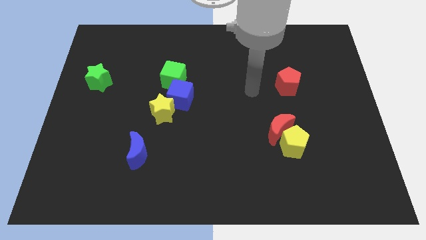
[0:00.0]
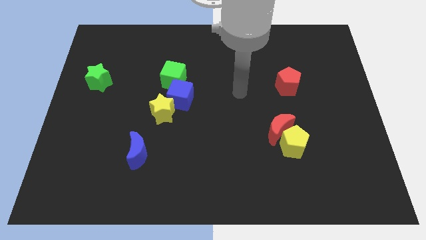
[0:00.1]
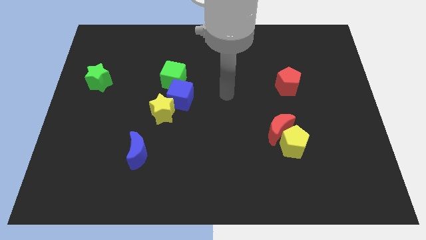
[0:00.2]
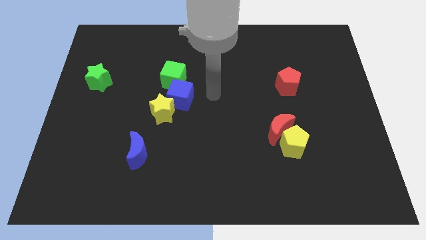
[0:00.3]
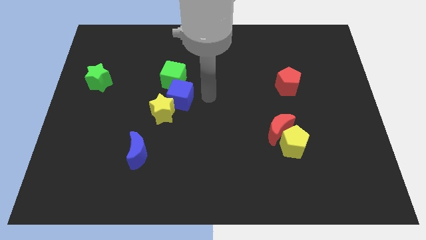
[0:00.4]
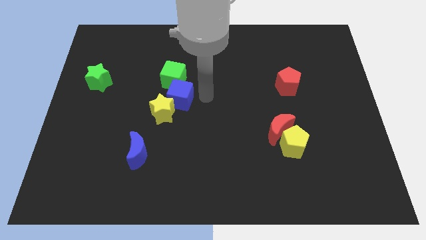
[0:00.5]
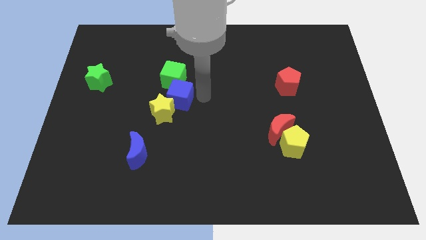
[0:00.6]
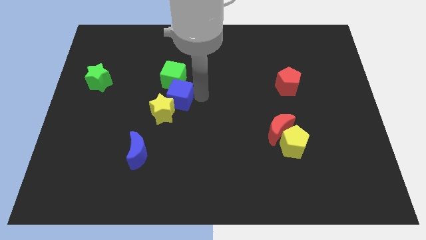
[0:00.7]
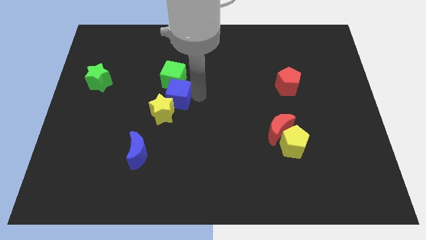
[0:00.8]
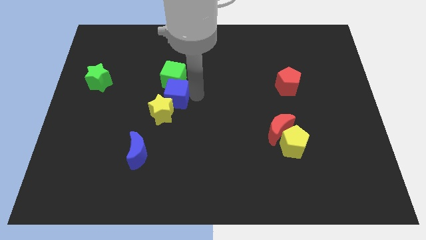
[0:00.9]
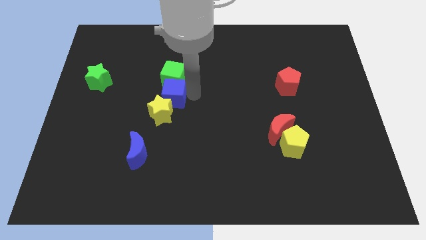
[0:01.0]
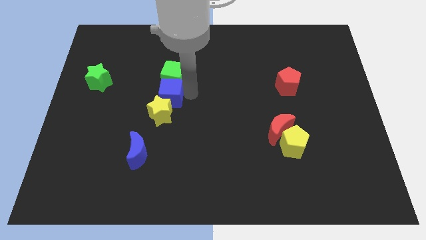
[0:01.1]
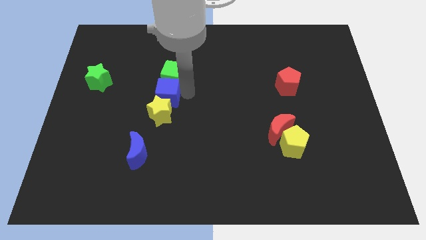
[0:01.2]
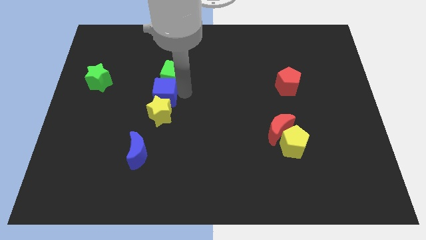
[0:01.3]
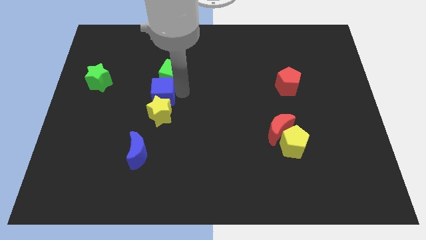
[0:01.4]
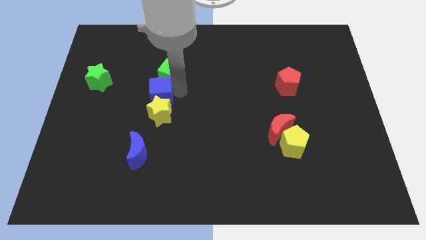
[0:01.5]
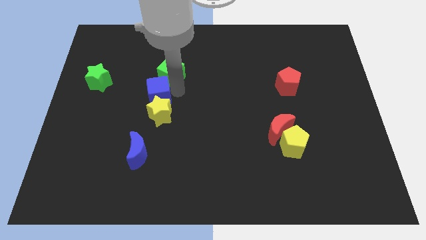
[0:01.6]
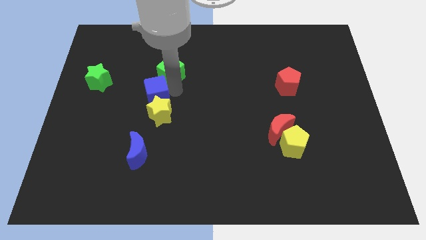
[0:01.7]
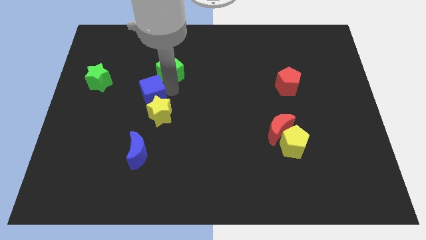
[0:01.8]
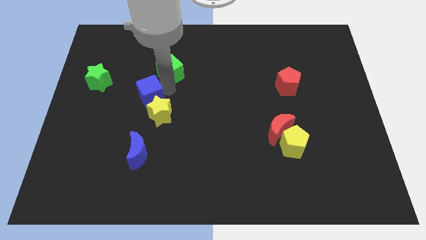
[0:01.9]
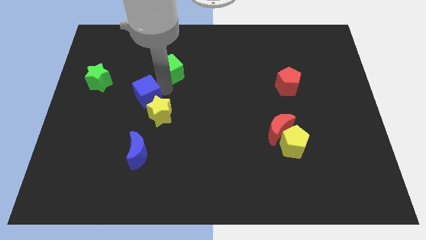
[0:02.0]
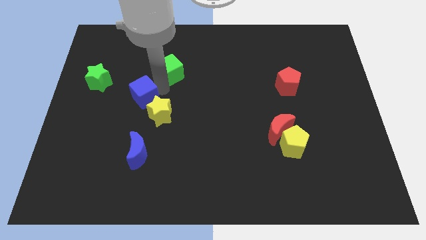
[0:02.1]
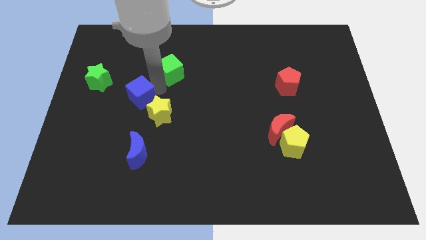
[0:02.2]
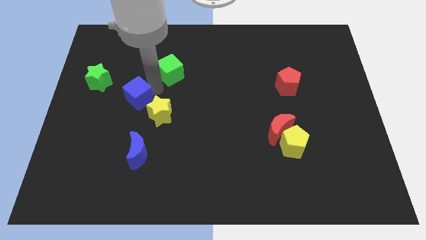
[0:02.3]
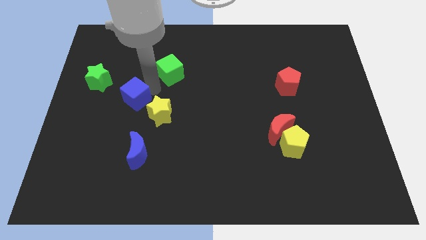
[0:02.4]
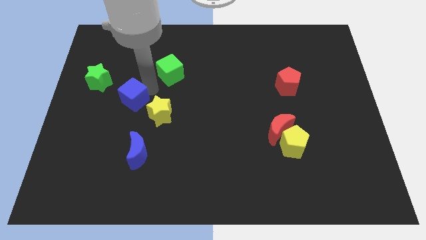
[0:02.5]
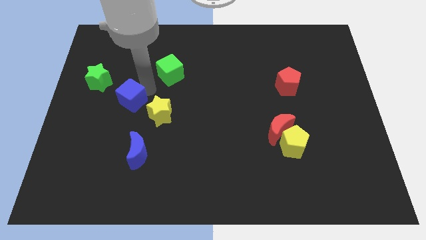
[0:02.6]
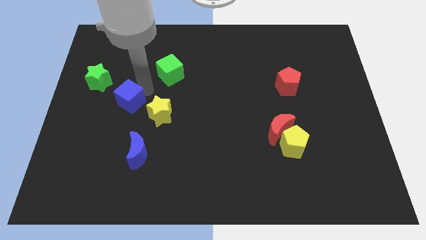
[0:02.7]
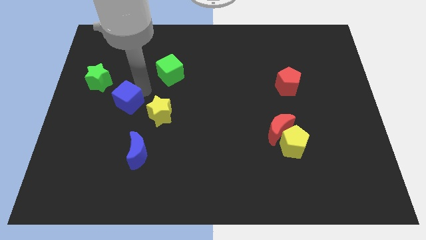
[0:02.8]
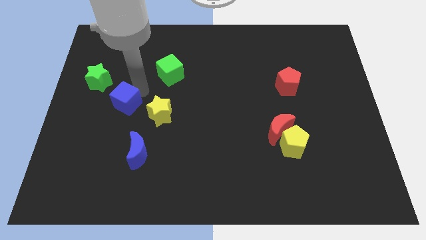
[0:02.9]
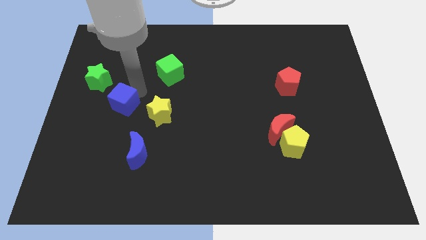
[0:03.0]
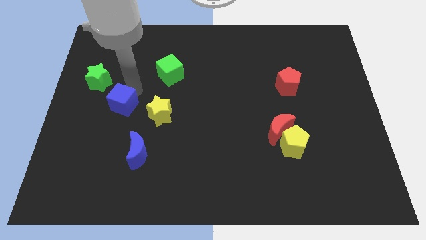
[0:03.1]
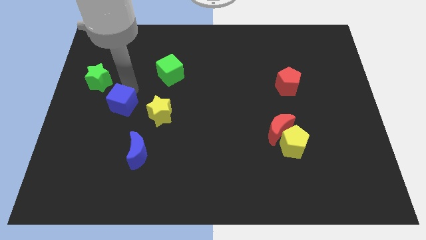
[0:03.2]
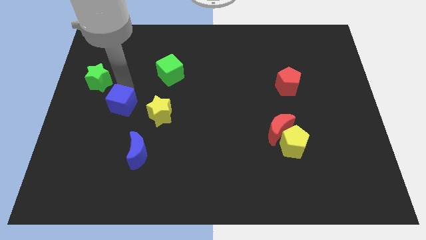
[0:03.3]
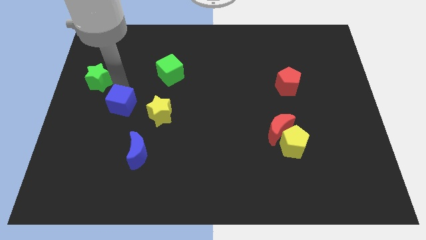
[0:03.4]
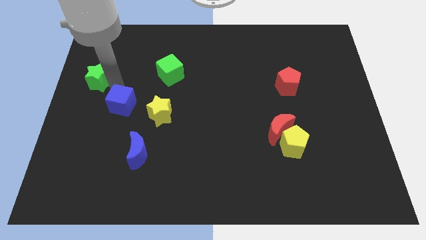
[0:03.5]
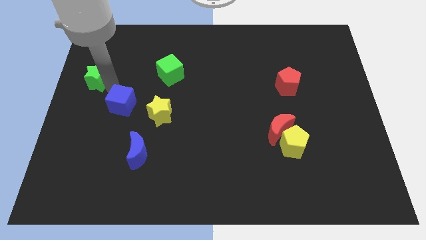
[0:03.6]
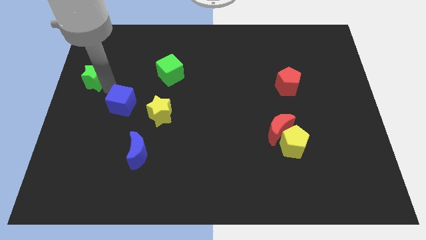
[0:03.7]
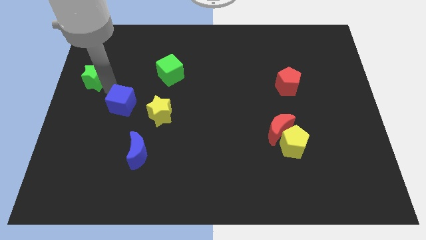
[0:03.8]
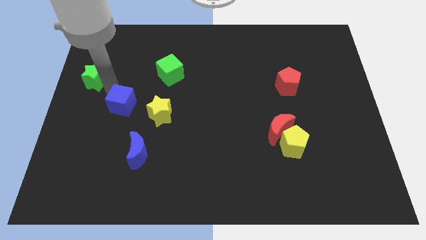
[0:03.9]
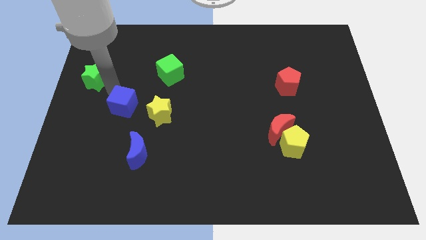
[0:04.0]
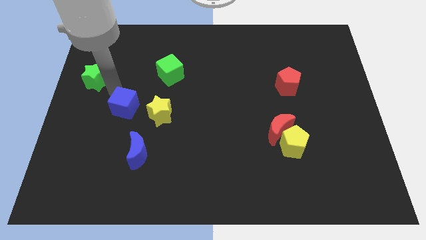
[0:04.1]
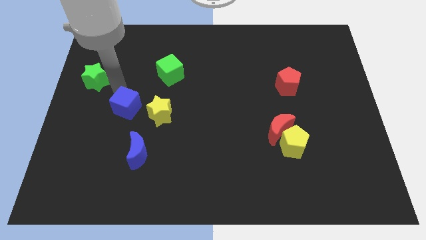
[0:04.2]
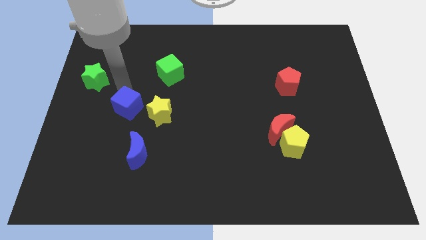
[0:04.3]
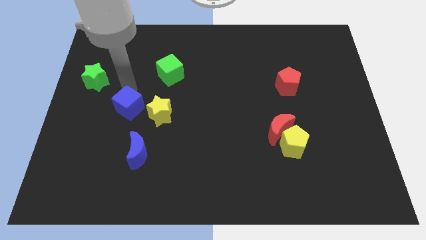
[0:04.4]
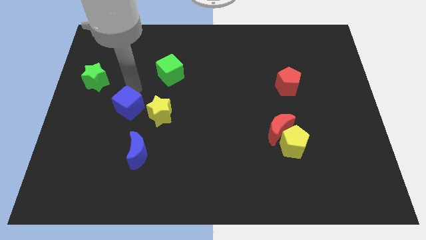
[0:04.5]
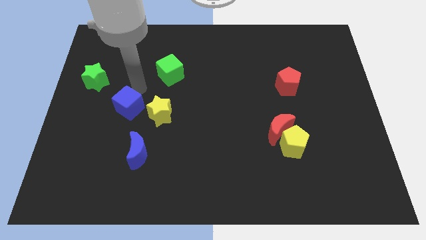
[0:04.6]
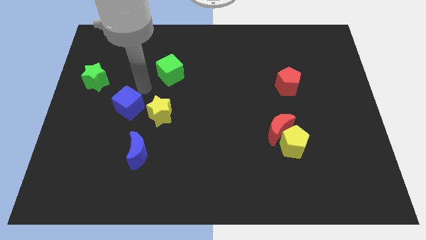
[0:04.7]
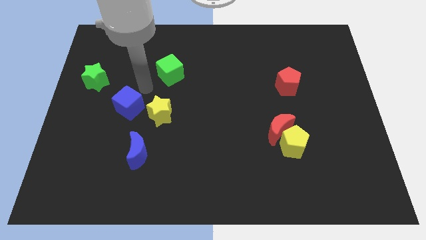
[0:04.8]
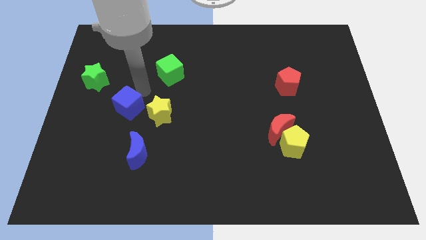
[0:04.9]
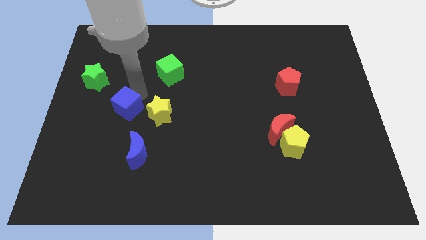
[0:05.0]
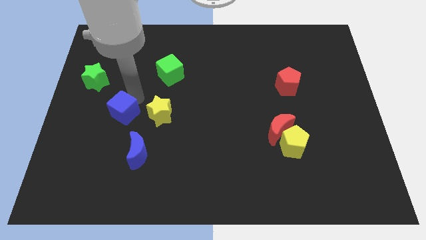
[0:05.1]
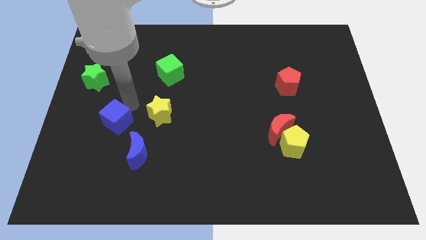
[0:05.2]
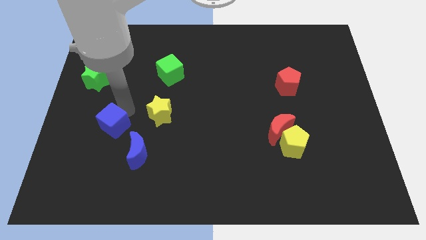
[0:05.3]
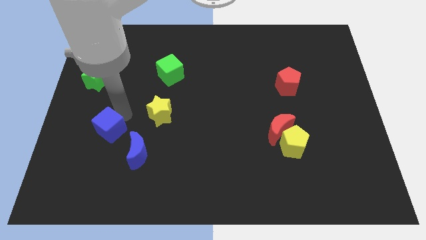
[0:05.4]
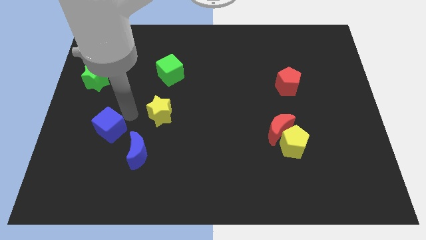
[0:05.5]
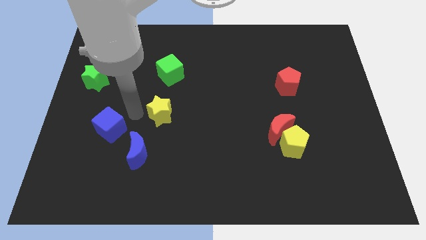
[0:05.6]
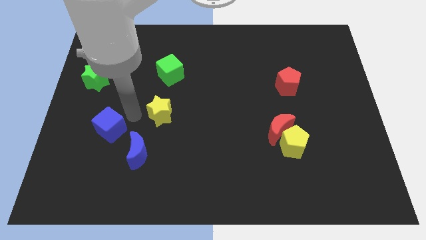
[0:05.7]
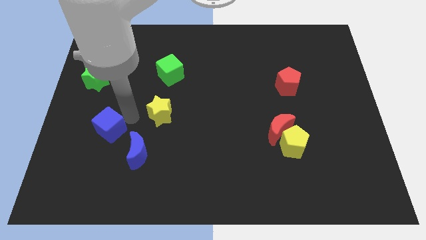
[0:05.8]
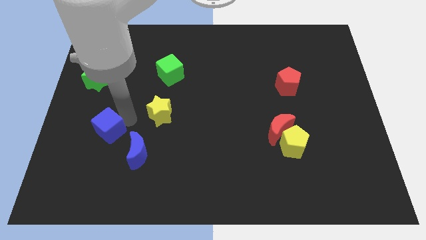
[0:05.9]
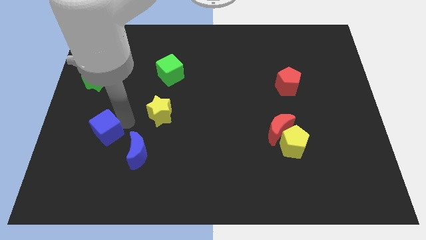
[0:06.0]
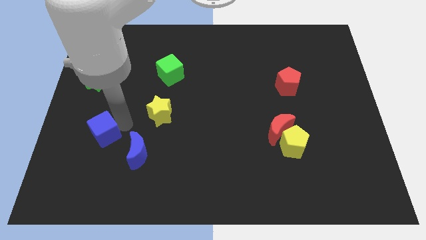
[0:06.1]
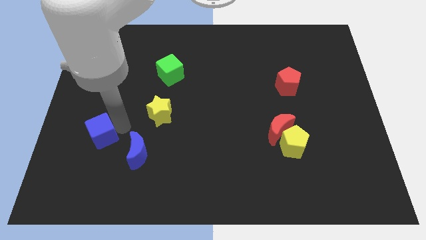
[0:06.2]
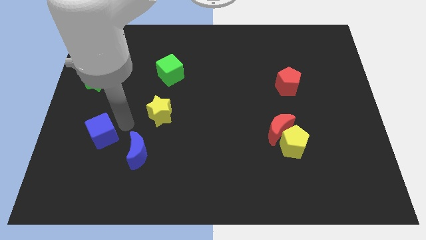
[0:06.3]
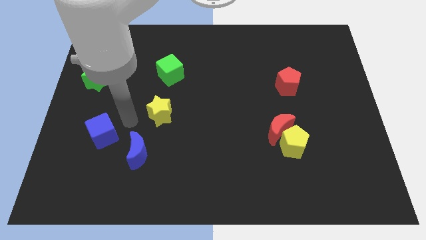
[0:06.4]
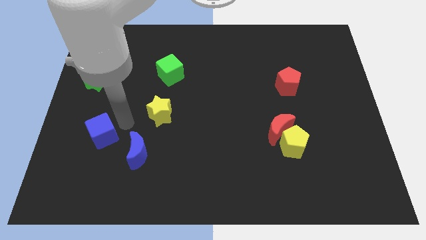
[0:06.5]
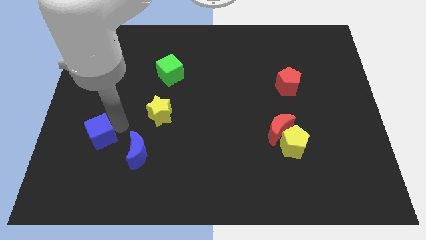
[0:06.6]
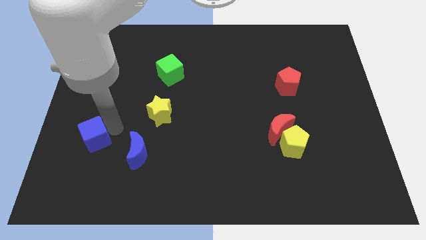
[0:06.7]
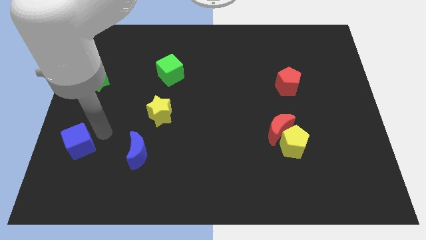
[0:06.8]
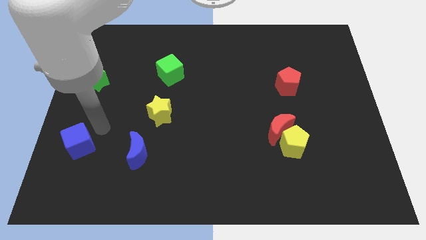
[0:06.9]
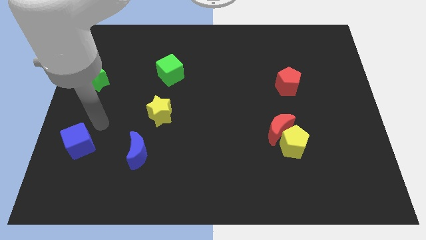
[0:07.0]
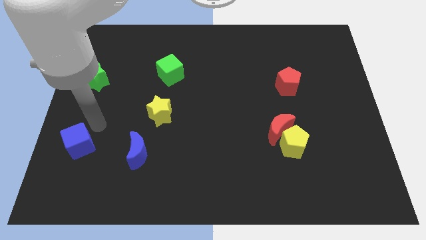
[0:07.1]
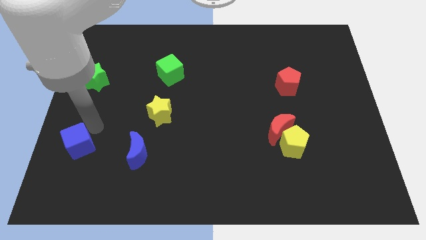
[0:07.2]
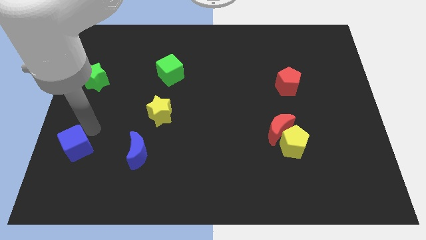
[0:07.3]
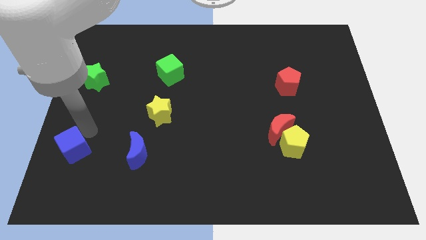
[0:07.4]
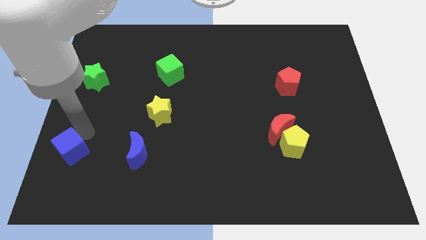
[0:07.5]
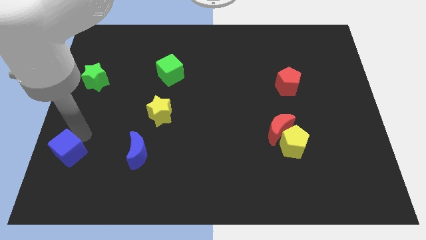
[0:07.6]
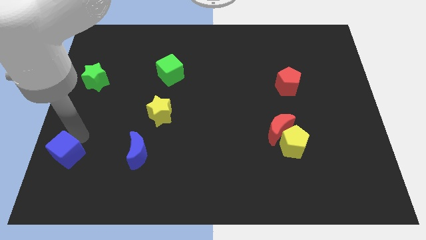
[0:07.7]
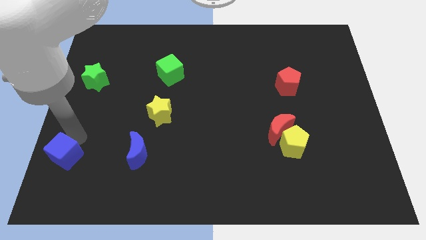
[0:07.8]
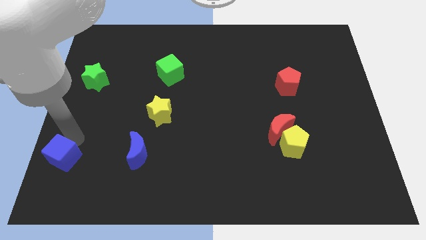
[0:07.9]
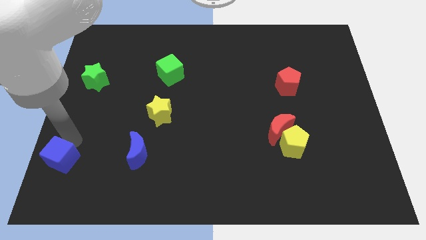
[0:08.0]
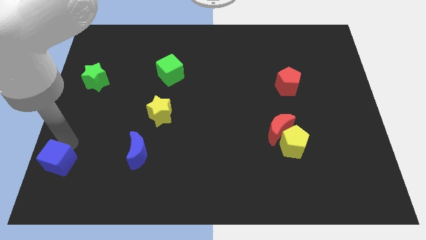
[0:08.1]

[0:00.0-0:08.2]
push the blue cube to the bottom left
